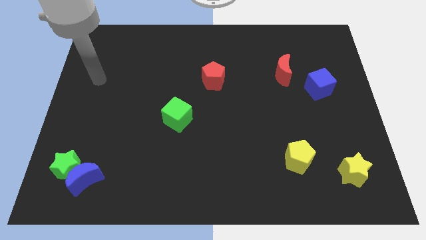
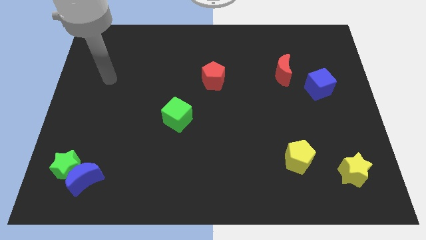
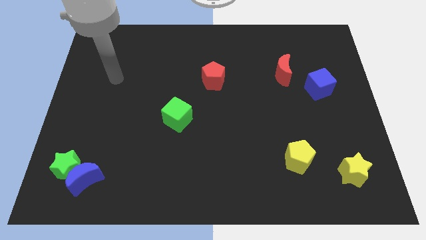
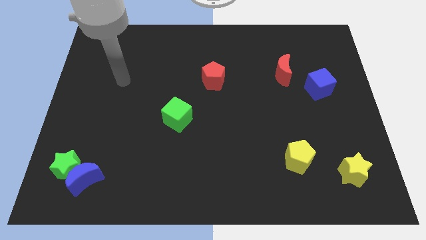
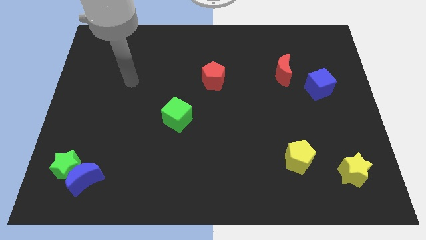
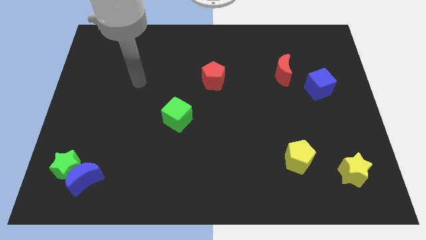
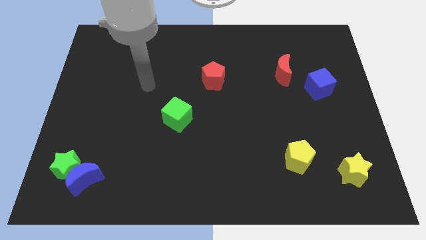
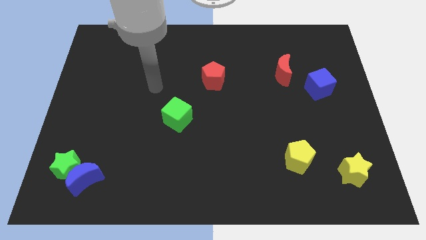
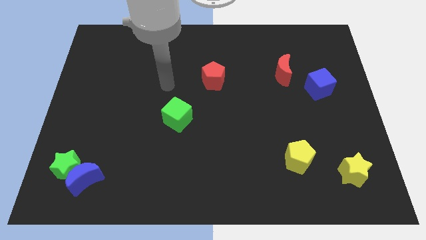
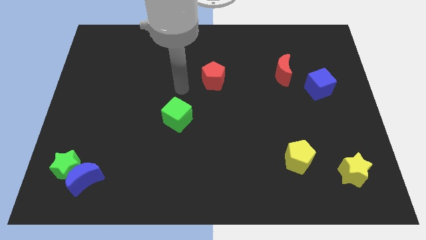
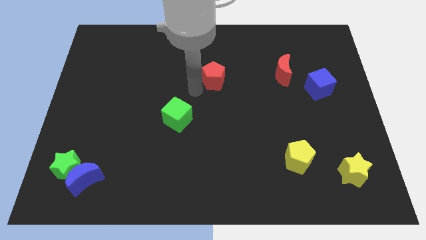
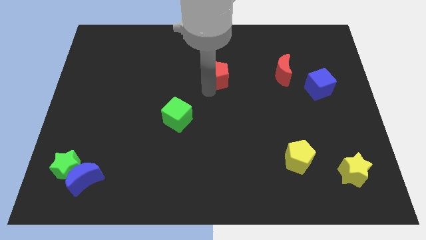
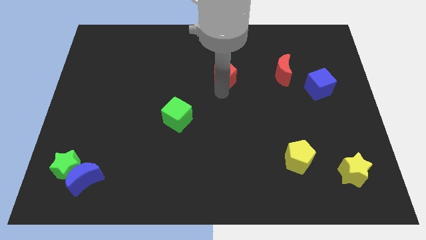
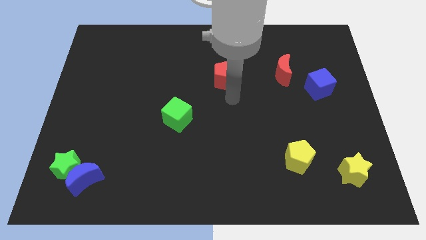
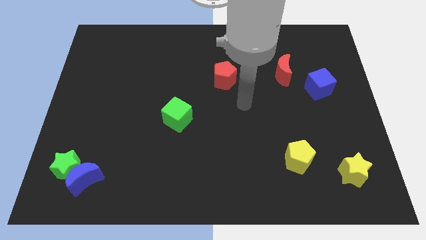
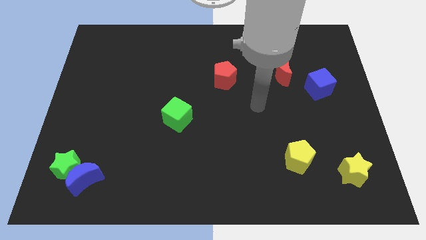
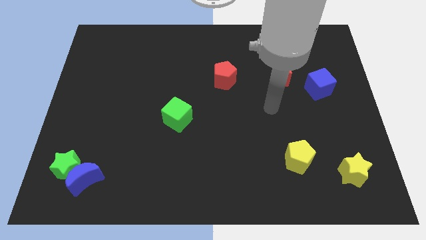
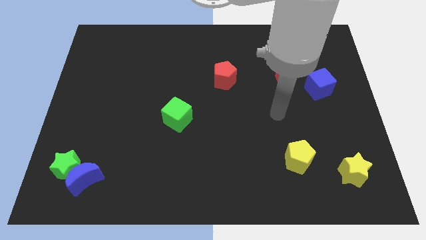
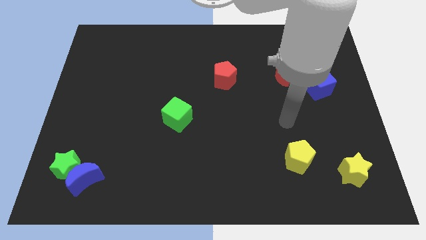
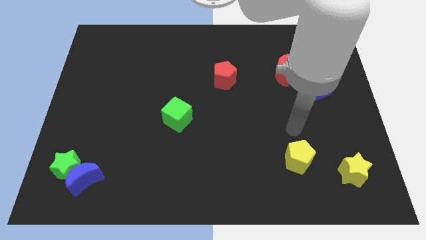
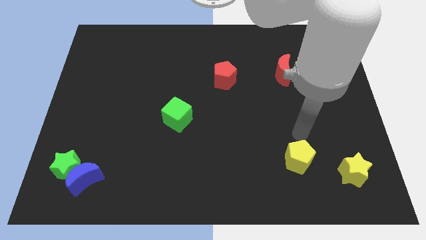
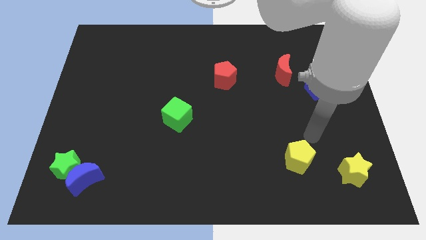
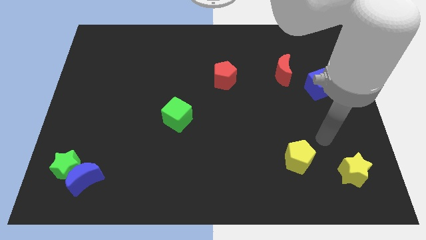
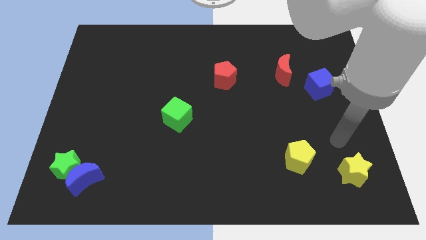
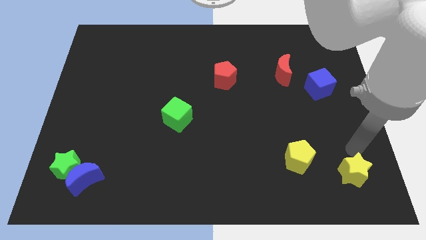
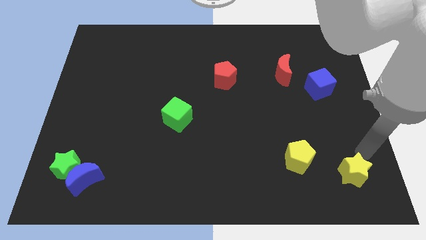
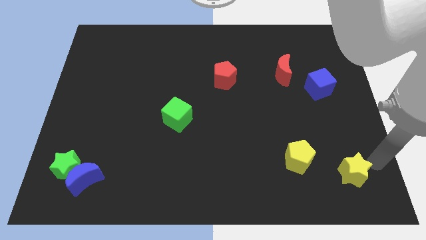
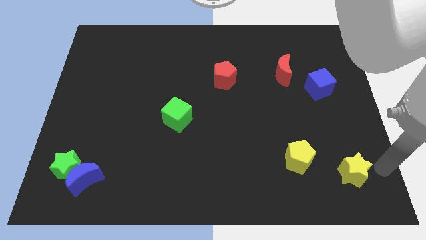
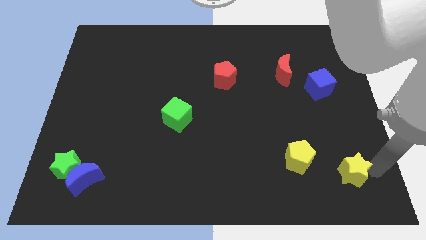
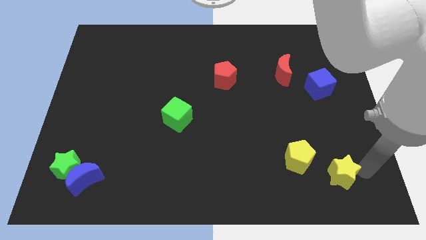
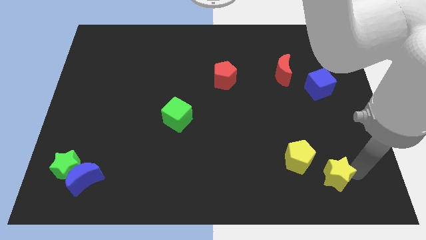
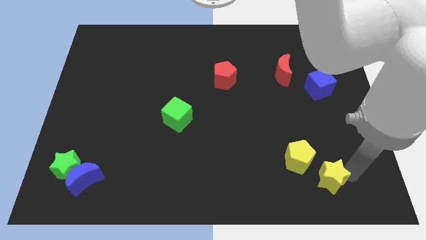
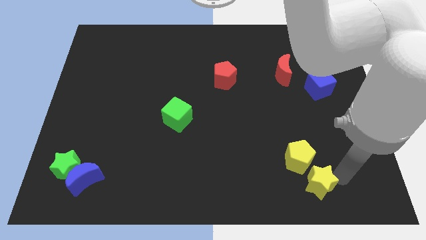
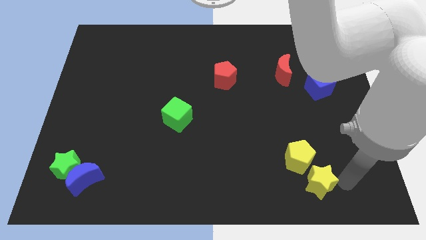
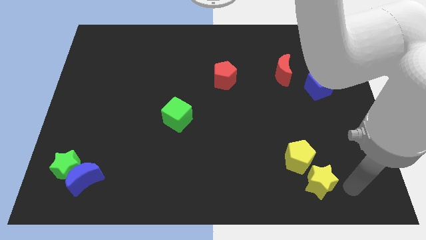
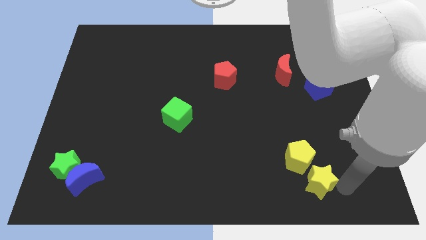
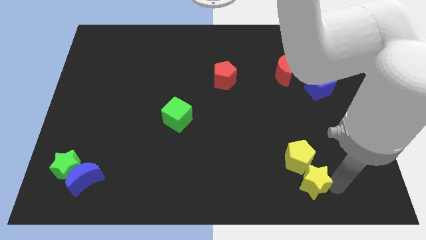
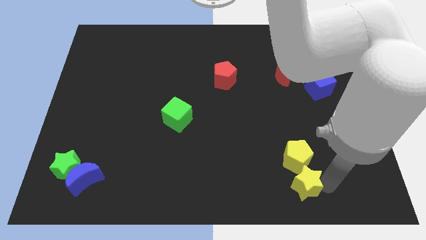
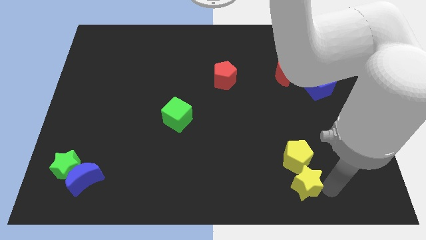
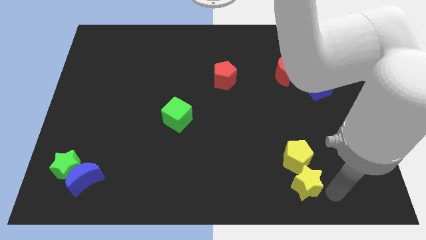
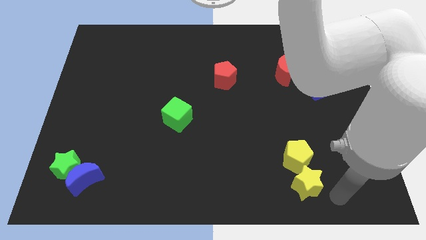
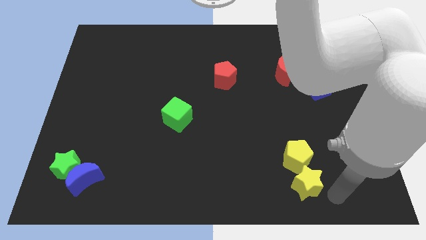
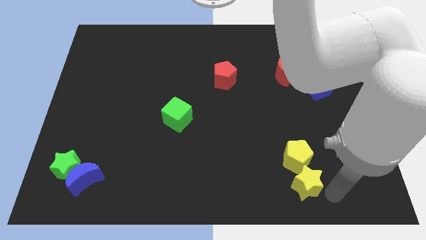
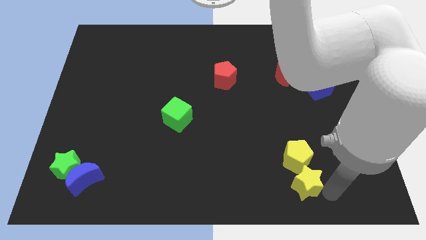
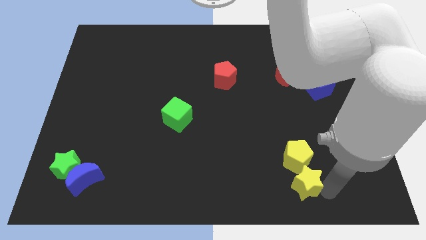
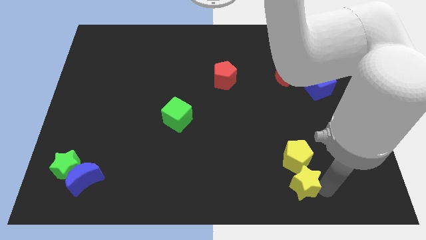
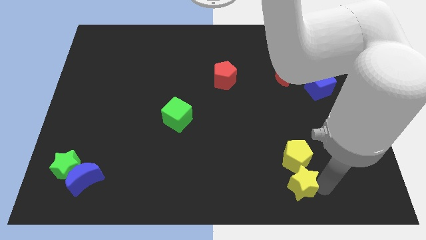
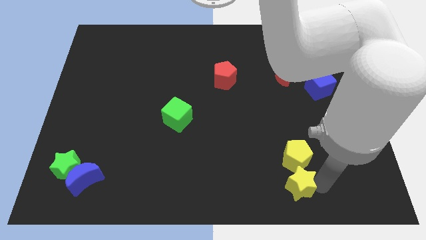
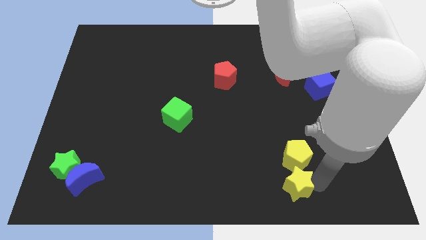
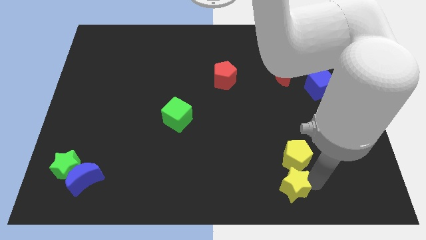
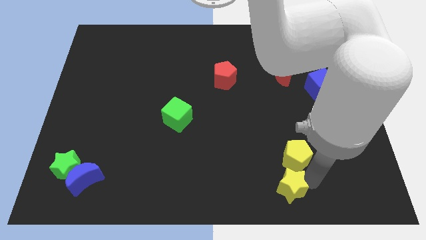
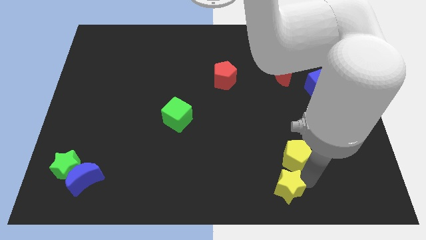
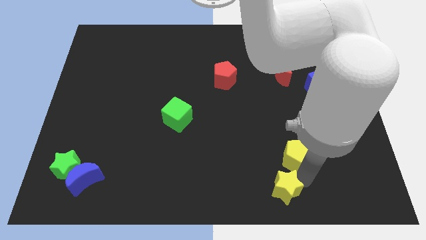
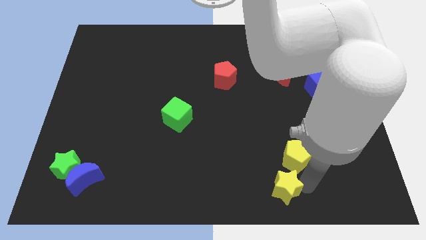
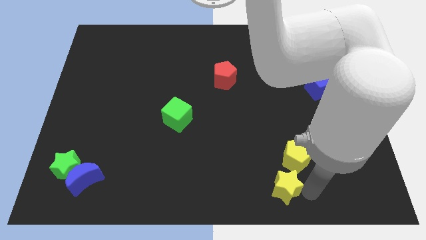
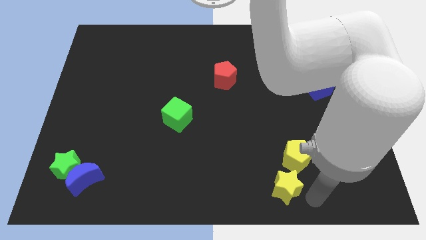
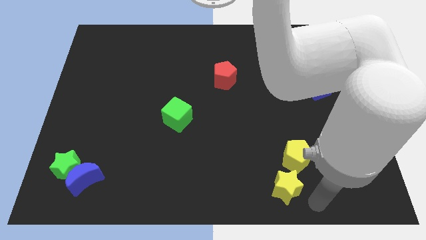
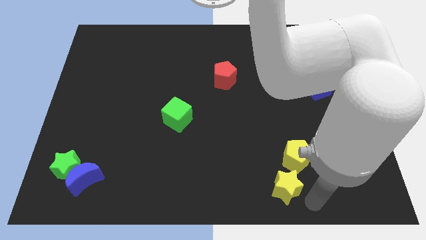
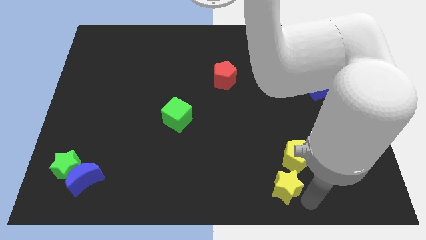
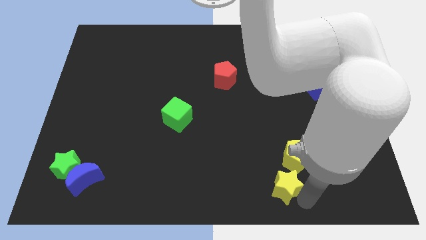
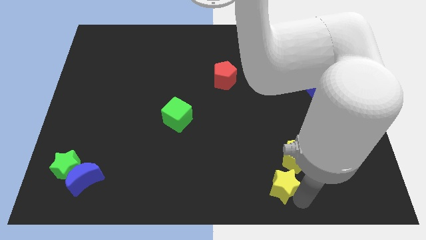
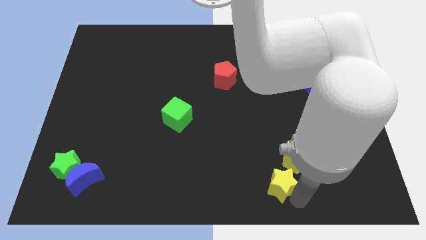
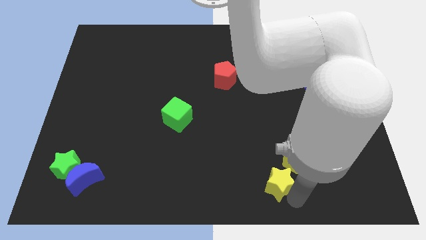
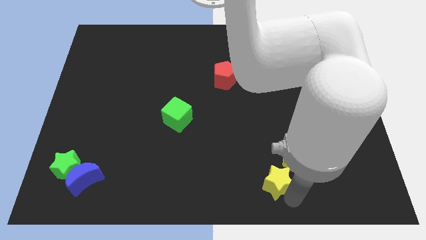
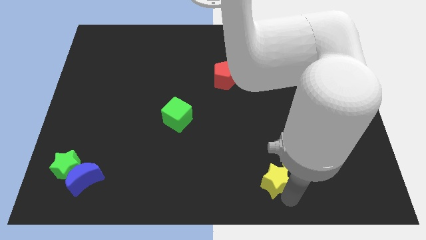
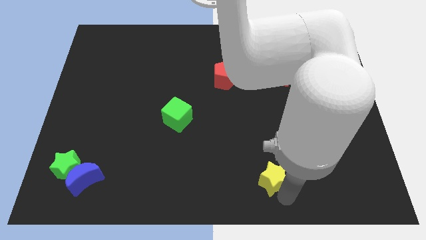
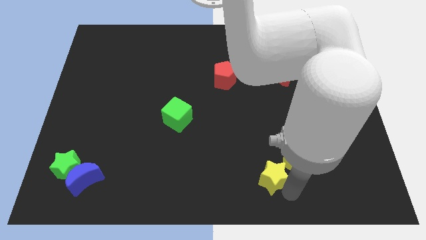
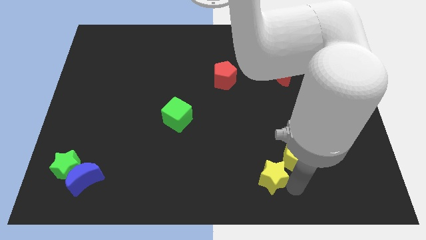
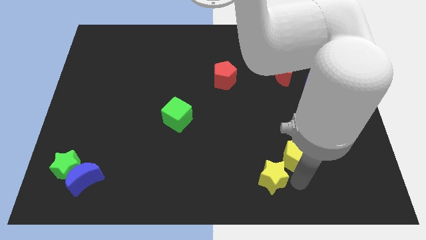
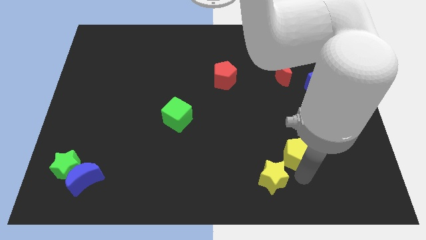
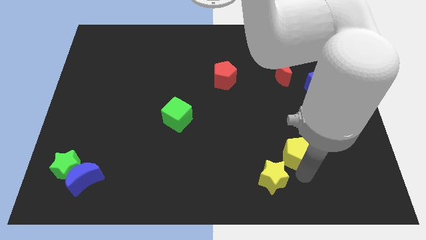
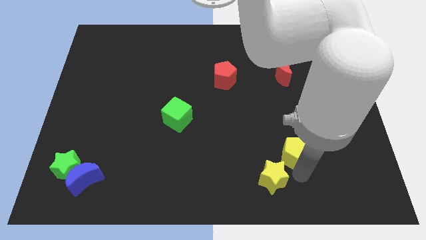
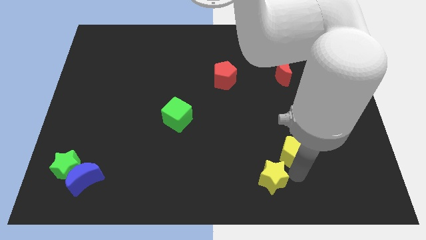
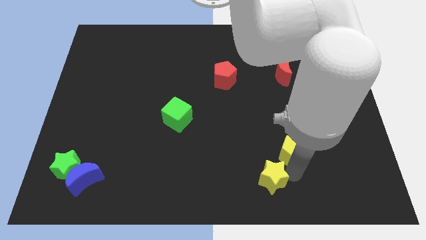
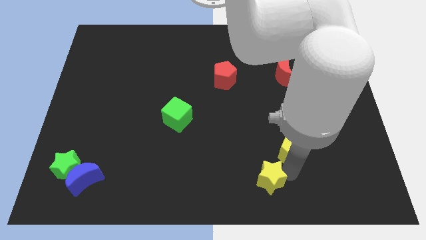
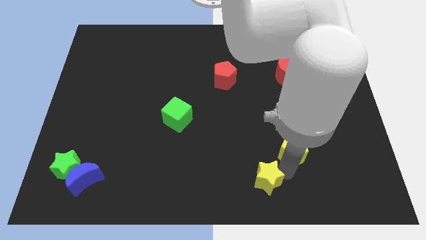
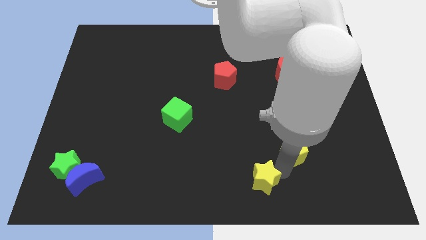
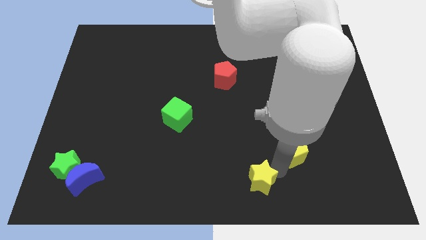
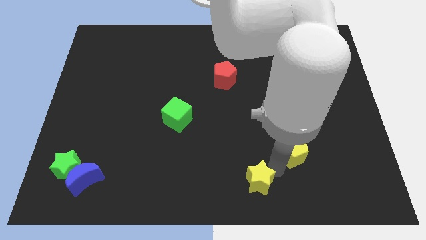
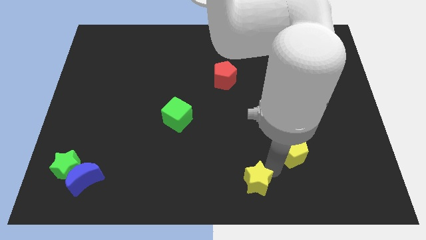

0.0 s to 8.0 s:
slide the yellow star left
